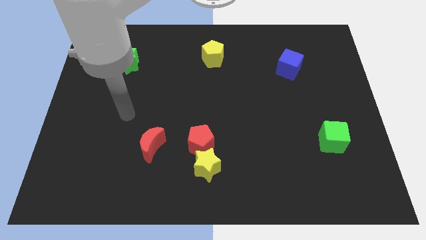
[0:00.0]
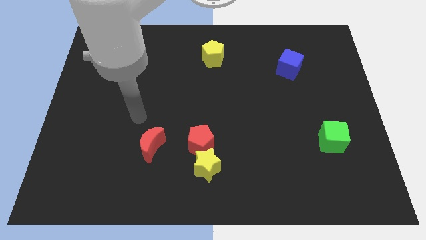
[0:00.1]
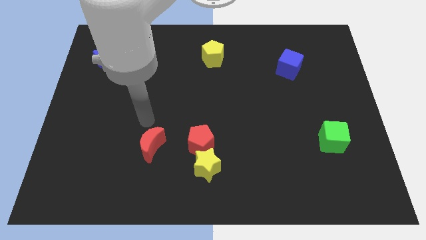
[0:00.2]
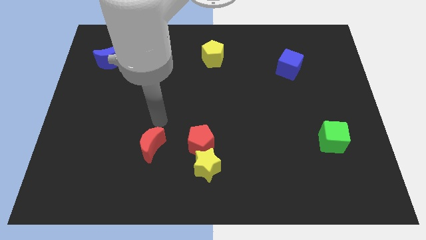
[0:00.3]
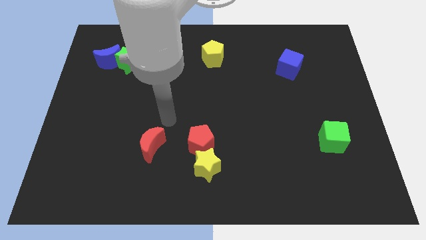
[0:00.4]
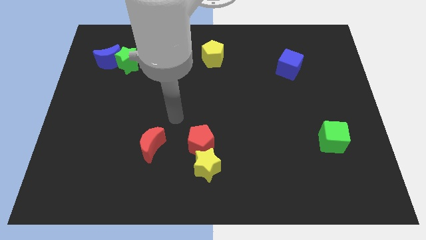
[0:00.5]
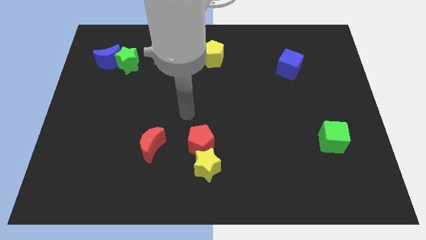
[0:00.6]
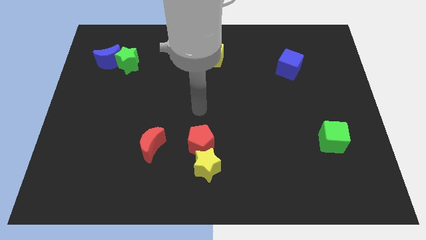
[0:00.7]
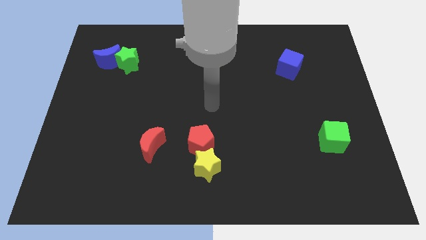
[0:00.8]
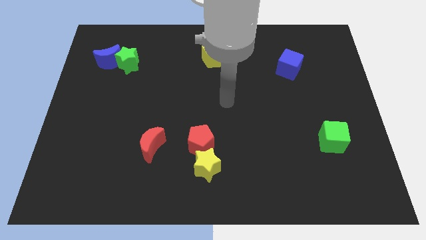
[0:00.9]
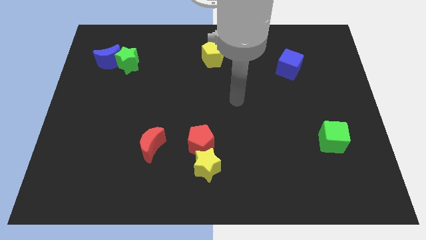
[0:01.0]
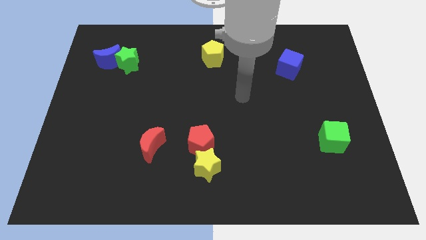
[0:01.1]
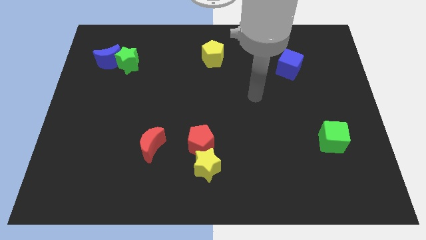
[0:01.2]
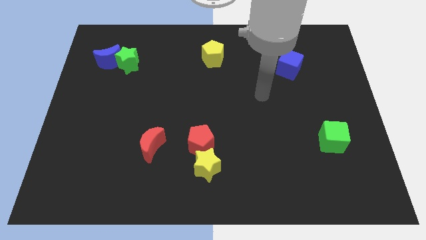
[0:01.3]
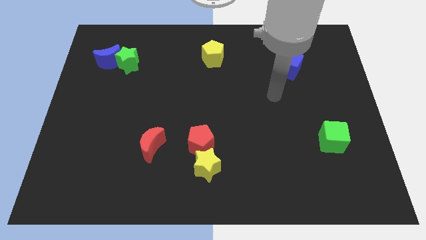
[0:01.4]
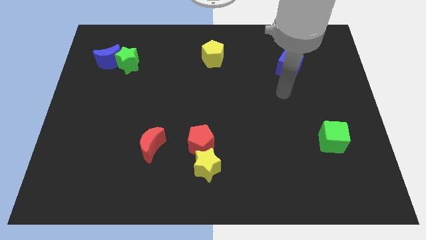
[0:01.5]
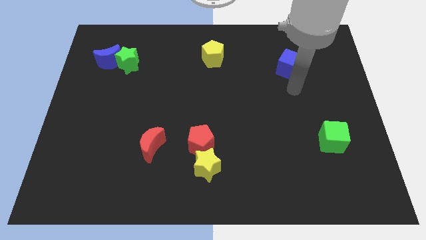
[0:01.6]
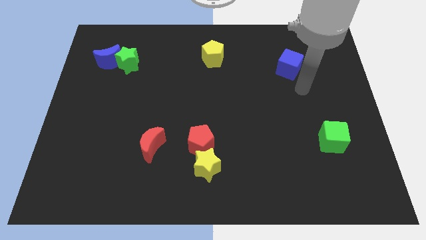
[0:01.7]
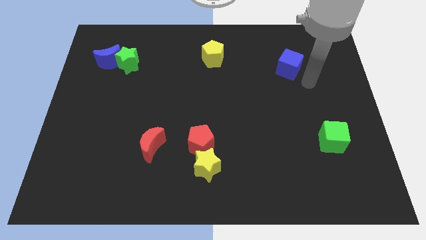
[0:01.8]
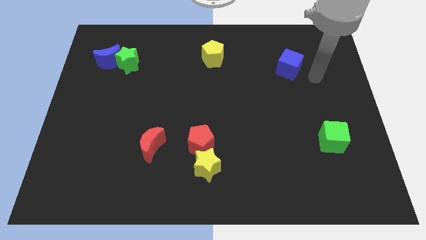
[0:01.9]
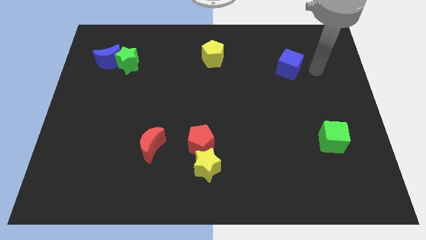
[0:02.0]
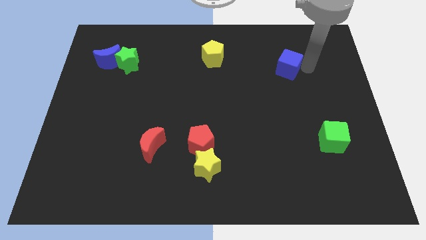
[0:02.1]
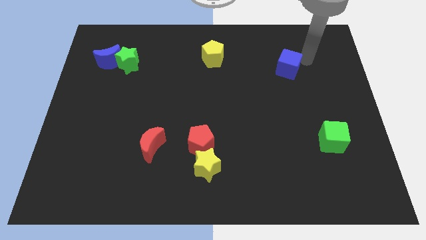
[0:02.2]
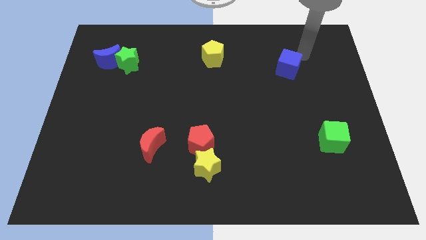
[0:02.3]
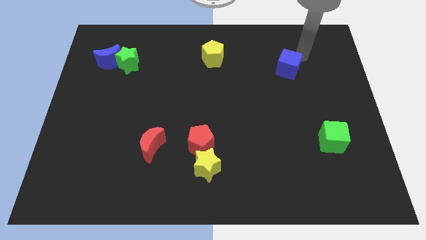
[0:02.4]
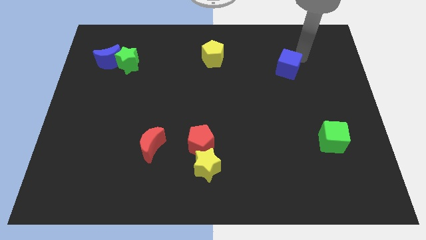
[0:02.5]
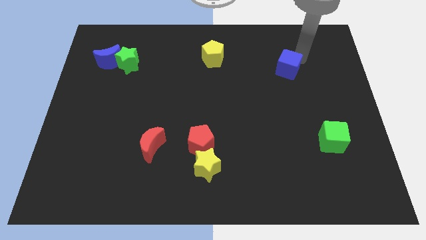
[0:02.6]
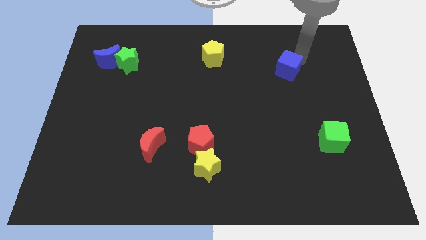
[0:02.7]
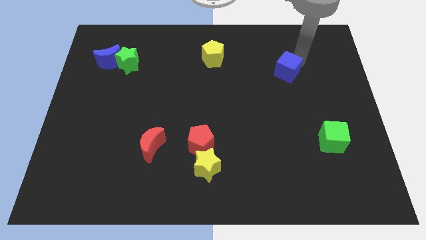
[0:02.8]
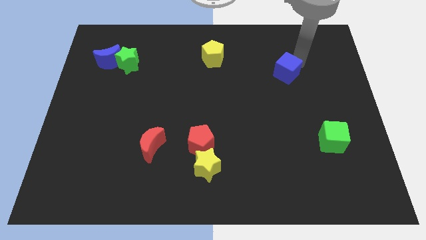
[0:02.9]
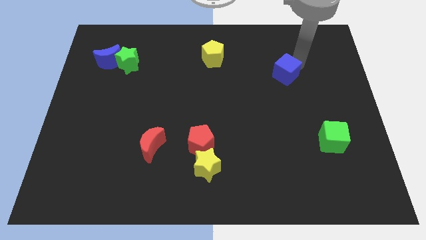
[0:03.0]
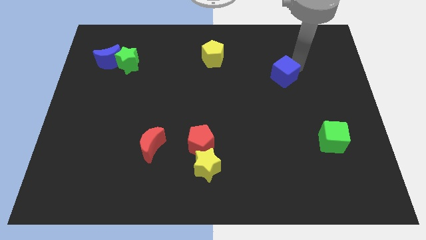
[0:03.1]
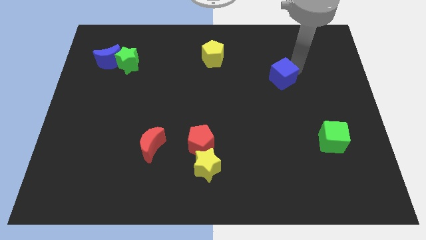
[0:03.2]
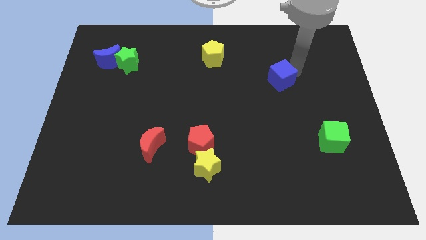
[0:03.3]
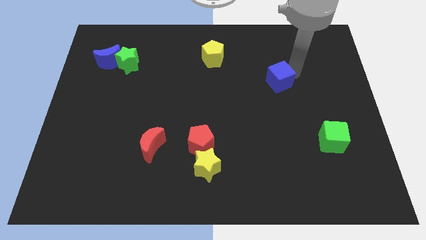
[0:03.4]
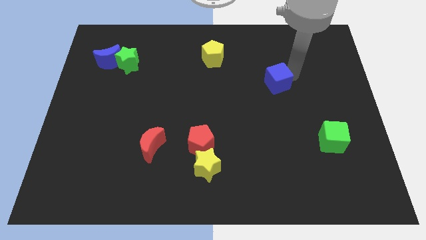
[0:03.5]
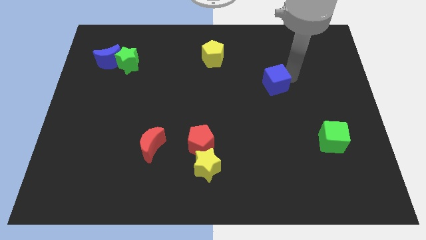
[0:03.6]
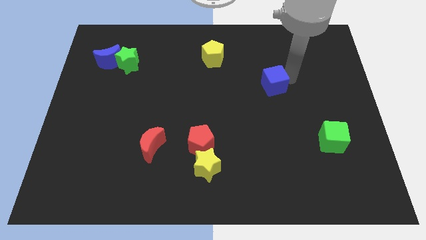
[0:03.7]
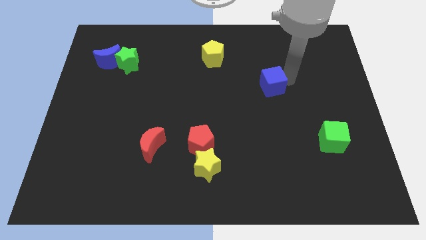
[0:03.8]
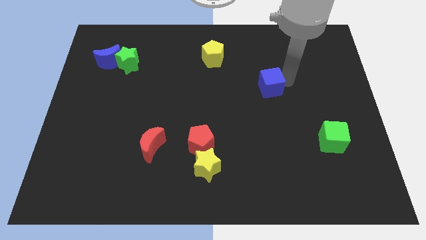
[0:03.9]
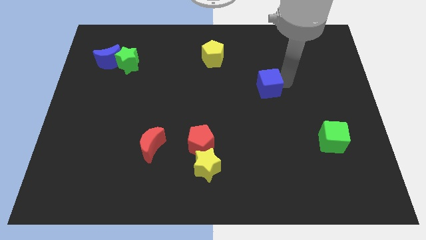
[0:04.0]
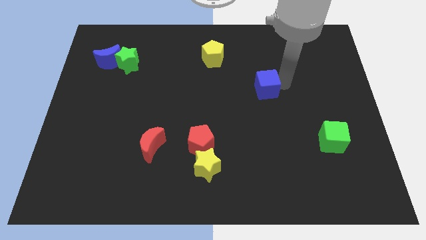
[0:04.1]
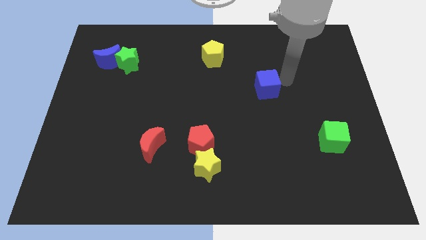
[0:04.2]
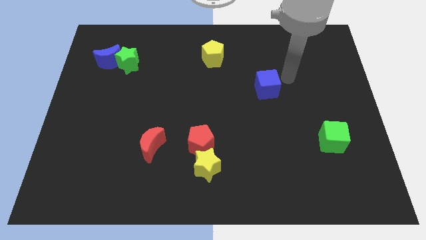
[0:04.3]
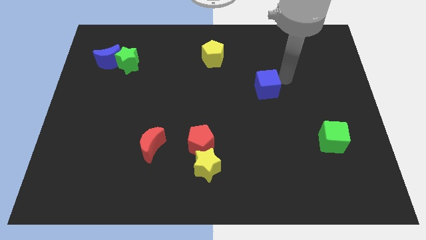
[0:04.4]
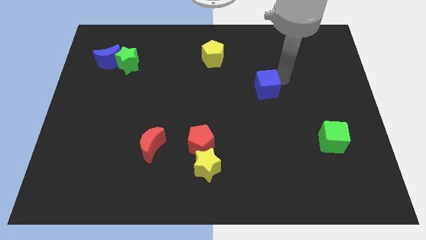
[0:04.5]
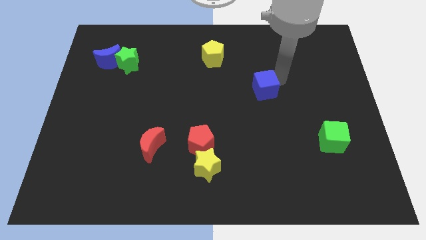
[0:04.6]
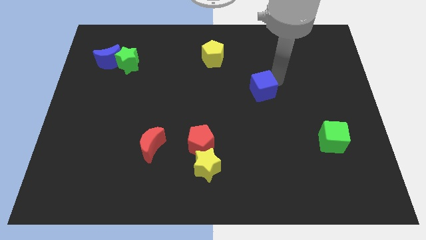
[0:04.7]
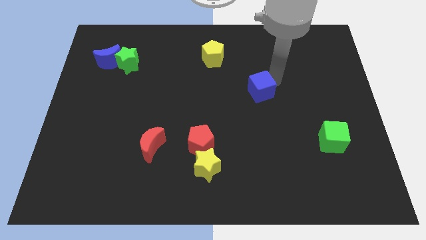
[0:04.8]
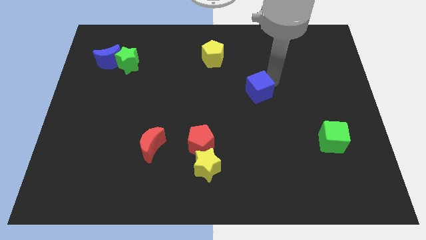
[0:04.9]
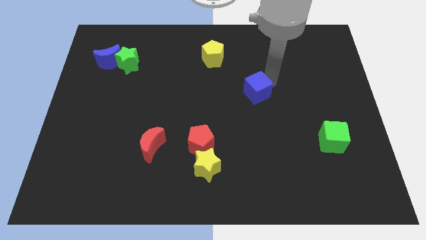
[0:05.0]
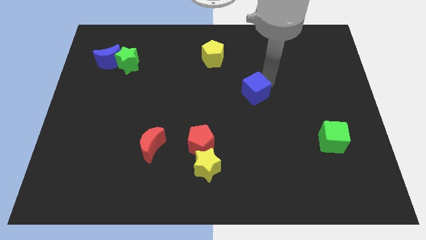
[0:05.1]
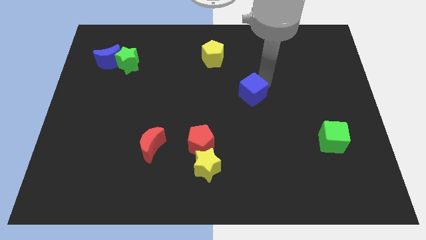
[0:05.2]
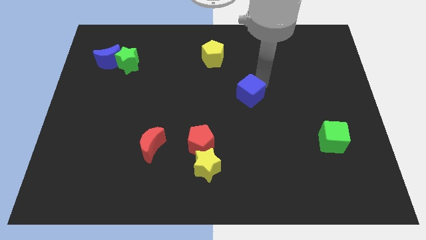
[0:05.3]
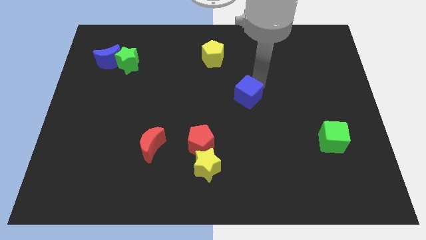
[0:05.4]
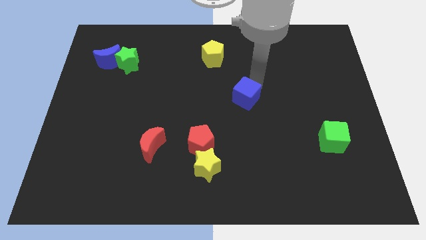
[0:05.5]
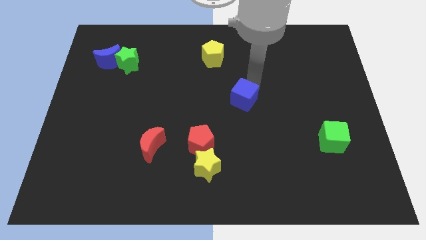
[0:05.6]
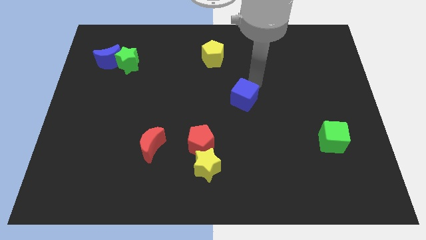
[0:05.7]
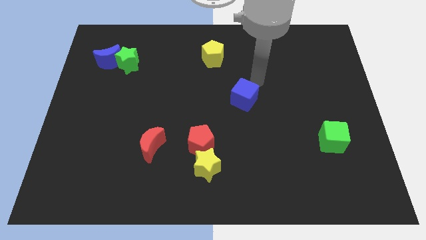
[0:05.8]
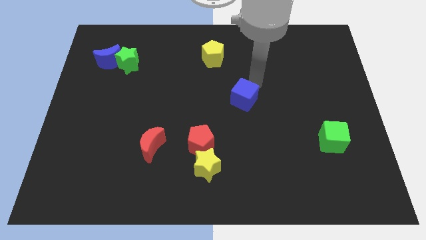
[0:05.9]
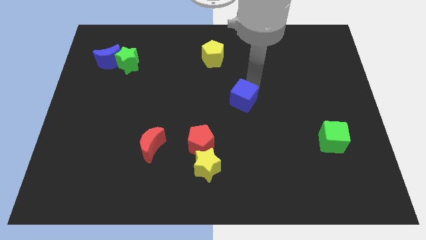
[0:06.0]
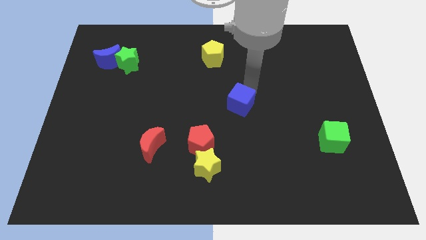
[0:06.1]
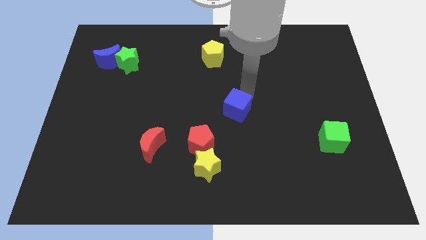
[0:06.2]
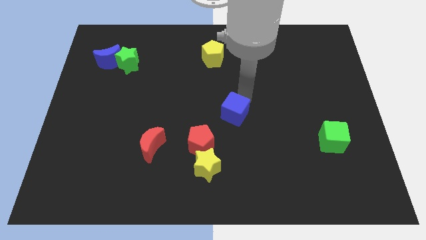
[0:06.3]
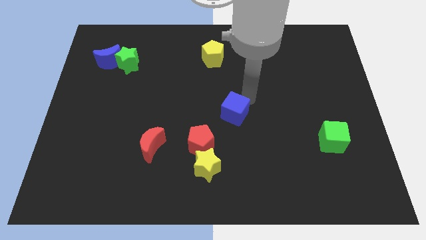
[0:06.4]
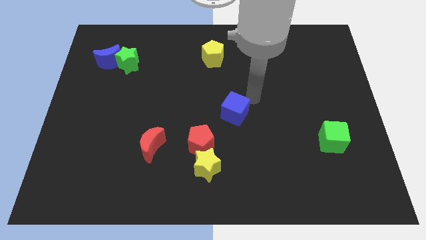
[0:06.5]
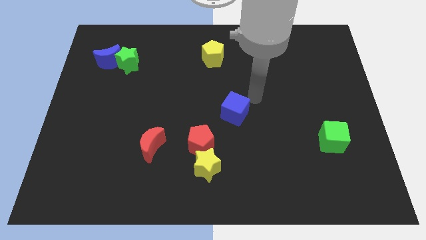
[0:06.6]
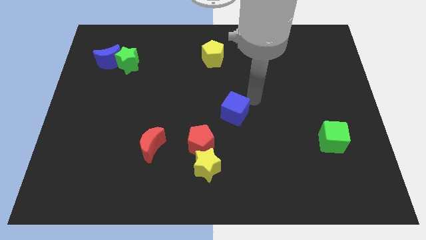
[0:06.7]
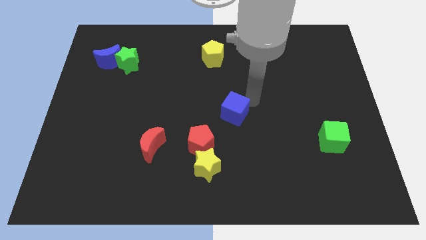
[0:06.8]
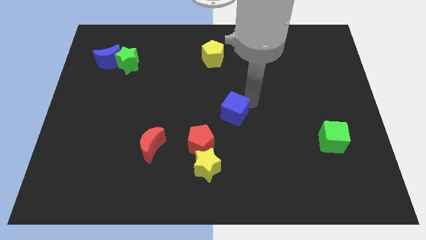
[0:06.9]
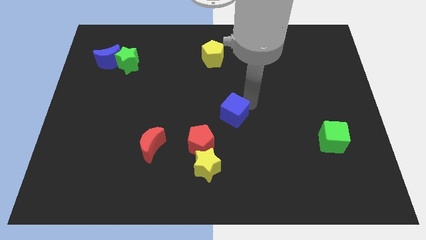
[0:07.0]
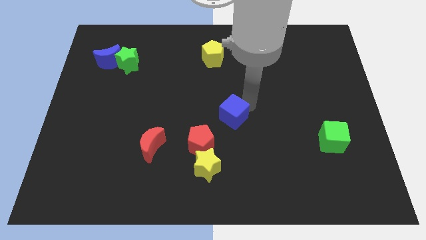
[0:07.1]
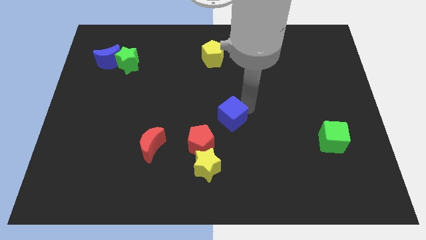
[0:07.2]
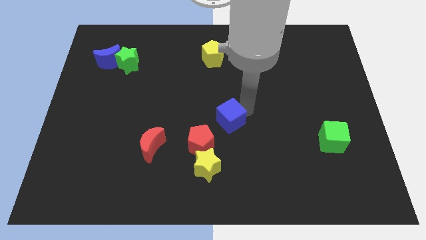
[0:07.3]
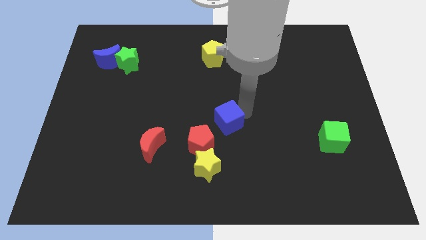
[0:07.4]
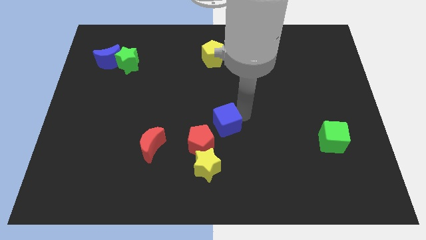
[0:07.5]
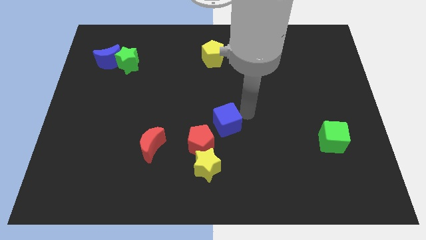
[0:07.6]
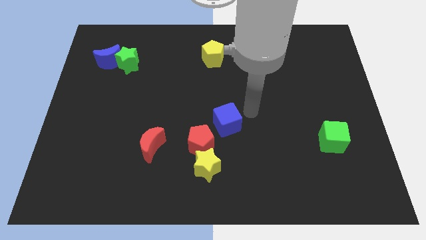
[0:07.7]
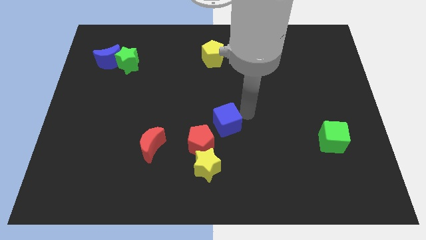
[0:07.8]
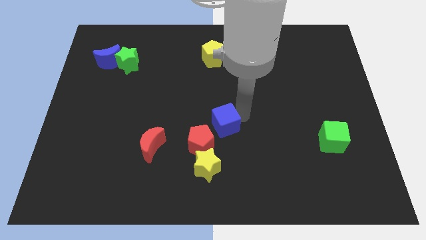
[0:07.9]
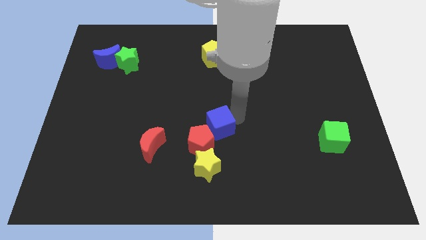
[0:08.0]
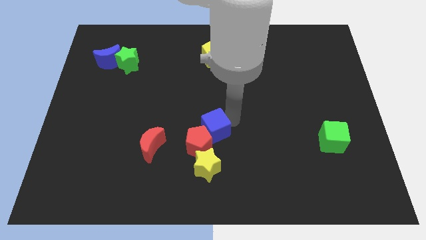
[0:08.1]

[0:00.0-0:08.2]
put the blue cube to the red pentagon
